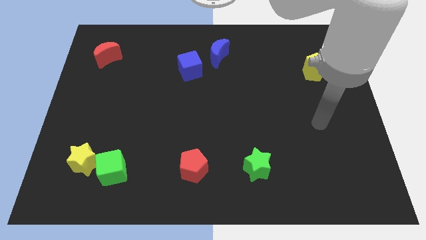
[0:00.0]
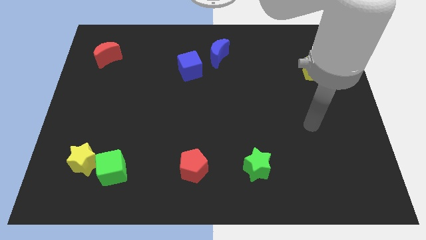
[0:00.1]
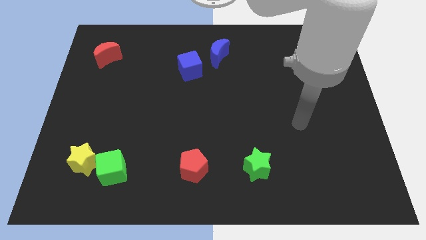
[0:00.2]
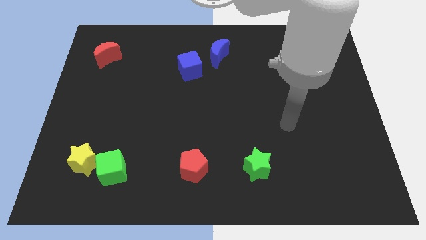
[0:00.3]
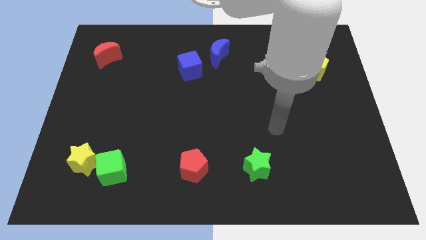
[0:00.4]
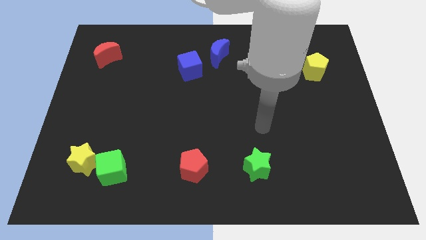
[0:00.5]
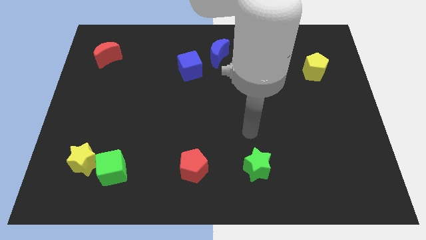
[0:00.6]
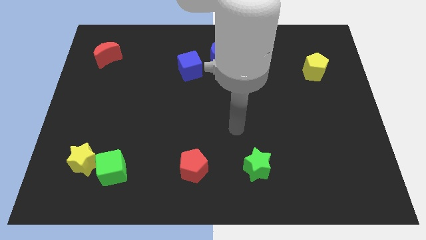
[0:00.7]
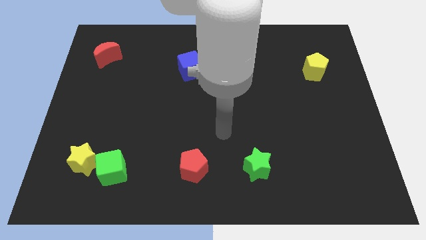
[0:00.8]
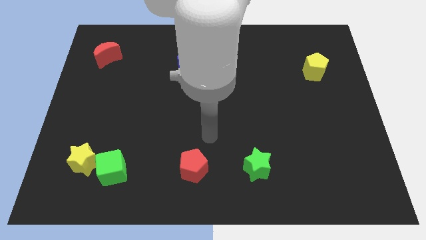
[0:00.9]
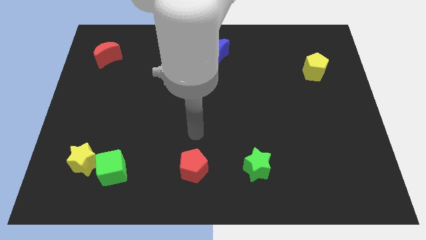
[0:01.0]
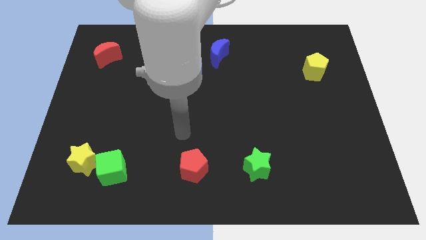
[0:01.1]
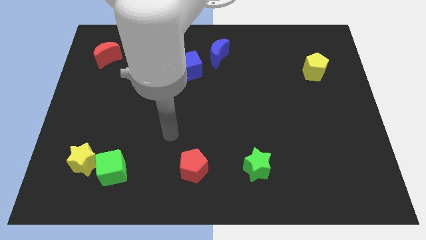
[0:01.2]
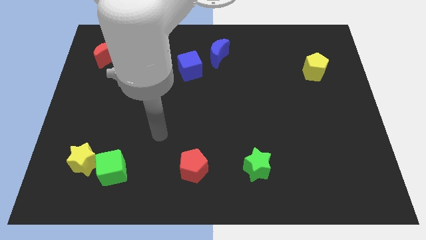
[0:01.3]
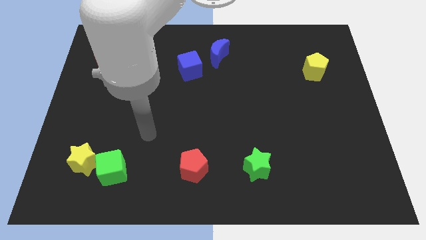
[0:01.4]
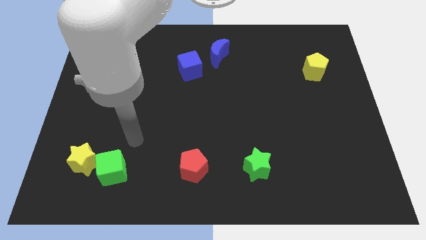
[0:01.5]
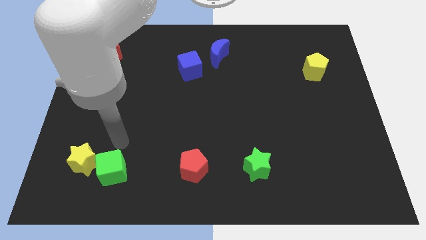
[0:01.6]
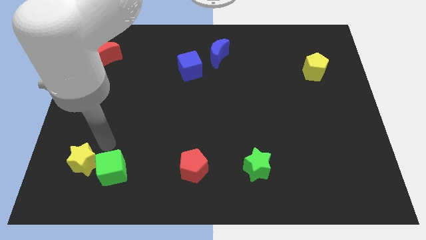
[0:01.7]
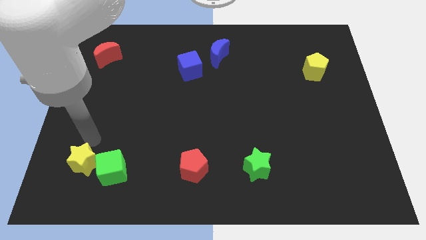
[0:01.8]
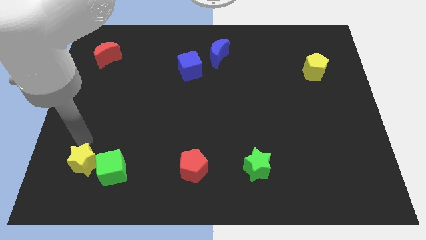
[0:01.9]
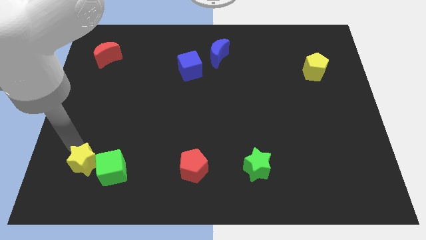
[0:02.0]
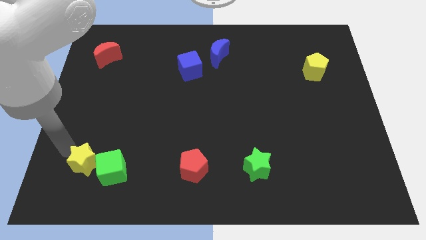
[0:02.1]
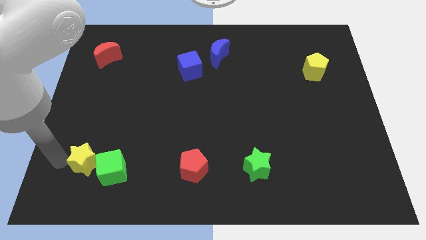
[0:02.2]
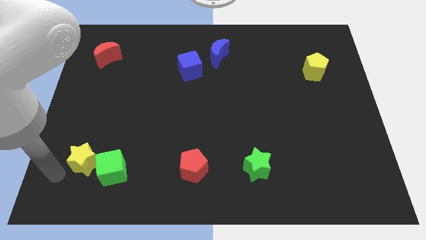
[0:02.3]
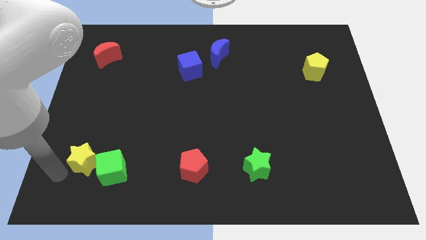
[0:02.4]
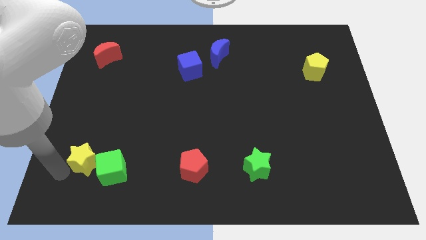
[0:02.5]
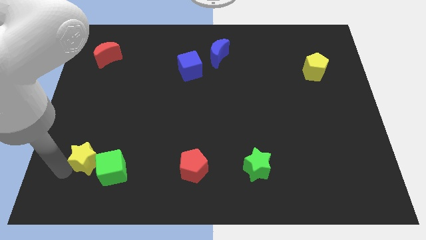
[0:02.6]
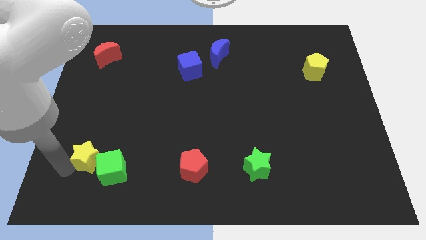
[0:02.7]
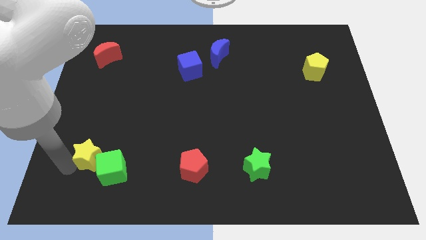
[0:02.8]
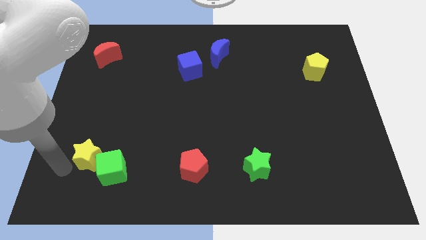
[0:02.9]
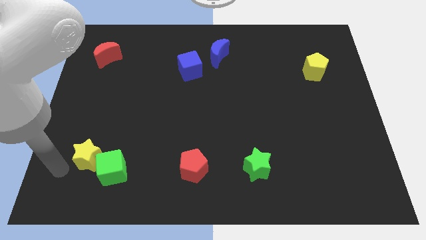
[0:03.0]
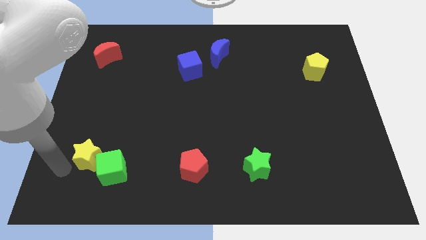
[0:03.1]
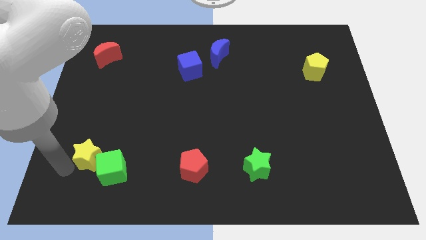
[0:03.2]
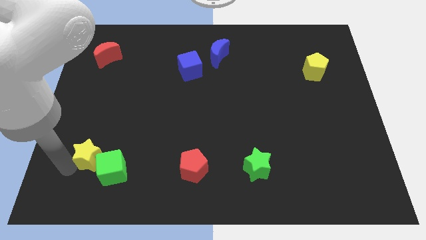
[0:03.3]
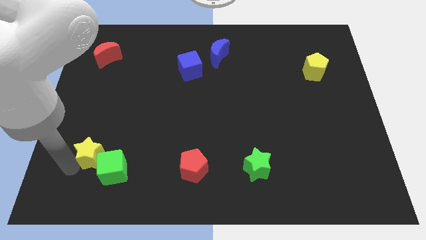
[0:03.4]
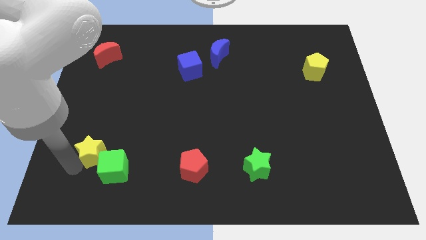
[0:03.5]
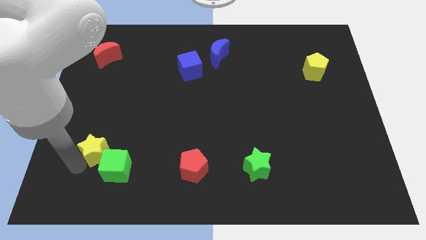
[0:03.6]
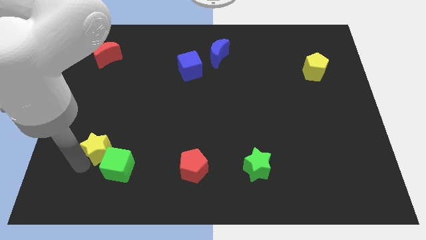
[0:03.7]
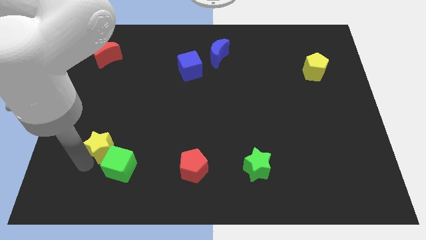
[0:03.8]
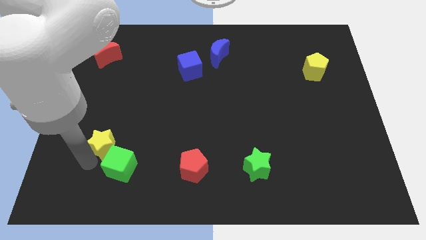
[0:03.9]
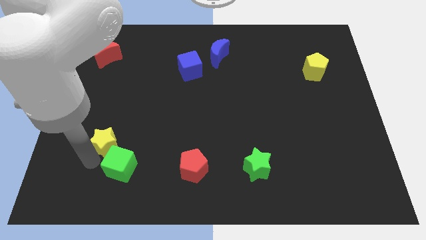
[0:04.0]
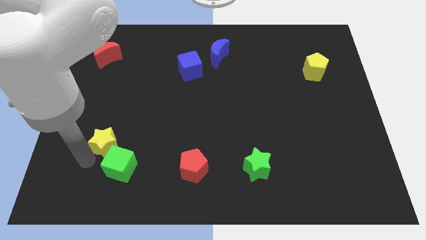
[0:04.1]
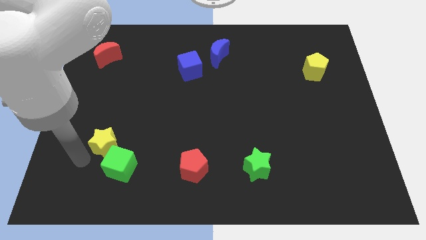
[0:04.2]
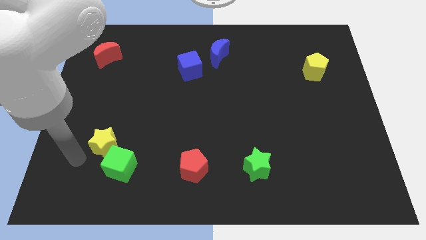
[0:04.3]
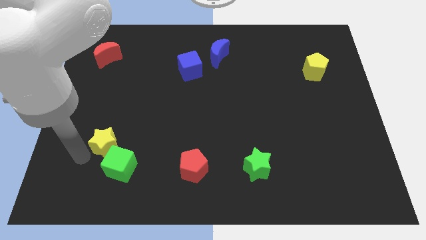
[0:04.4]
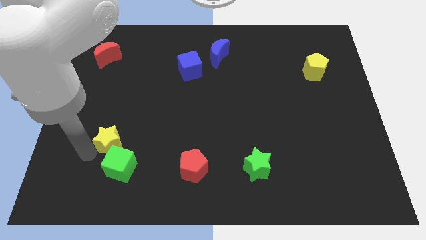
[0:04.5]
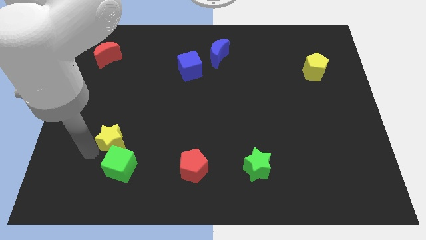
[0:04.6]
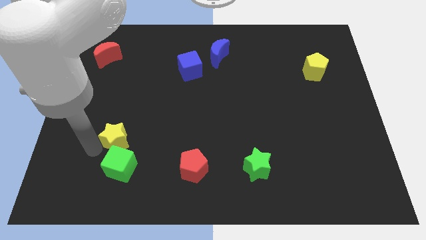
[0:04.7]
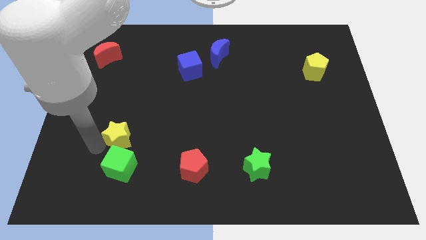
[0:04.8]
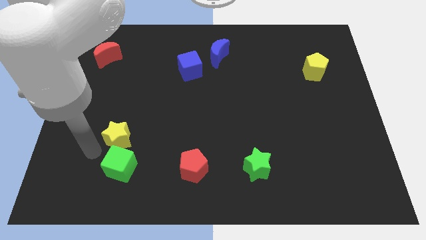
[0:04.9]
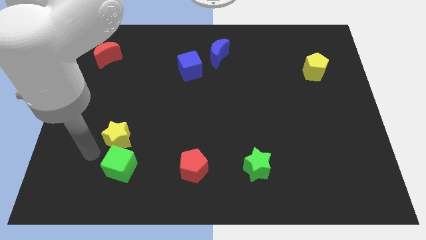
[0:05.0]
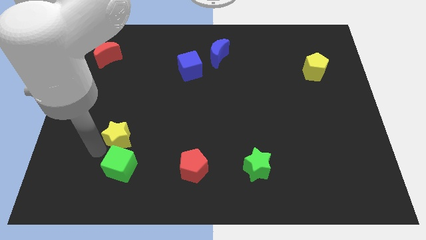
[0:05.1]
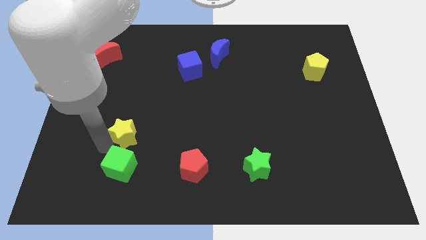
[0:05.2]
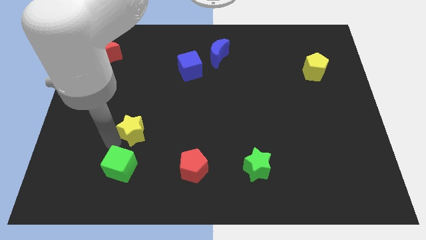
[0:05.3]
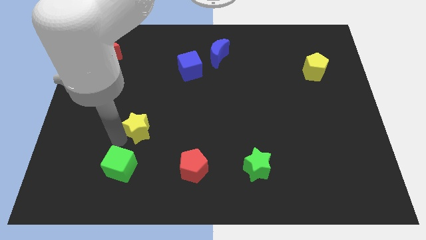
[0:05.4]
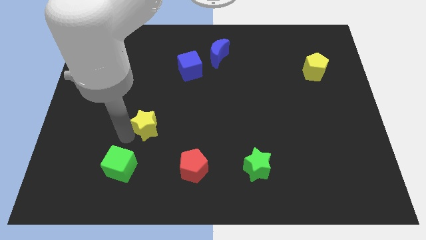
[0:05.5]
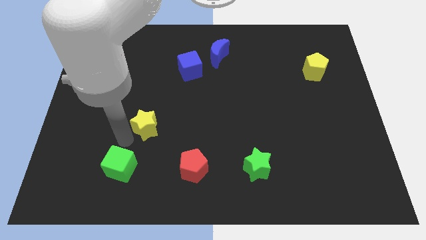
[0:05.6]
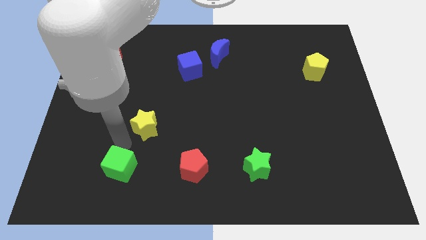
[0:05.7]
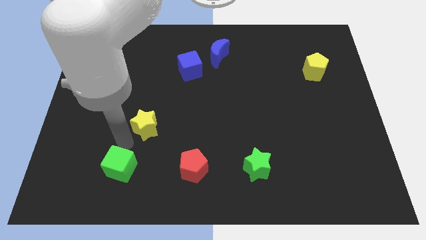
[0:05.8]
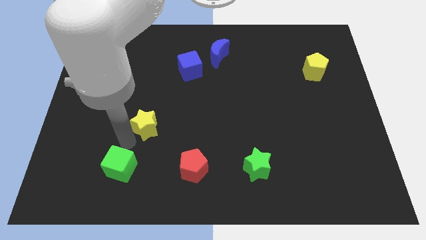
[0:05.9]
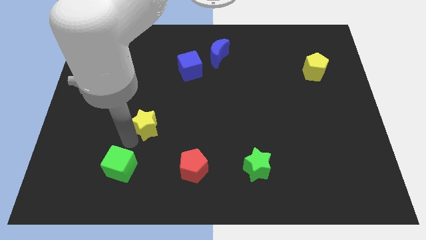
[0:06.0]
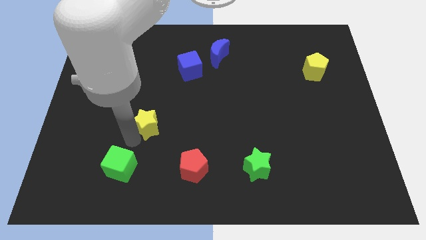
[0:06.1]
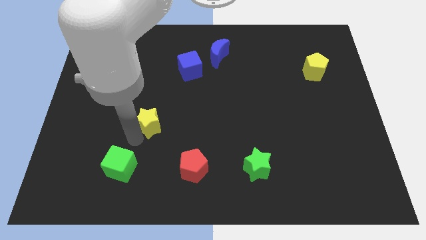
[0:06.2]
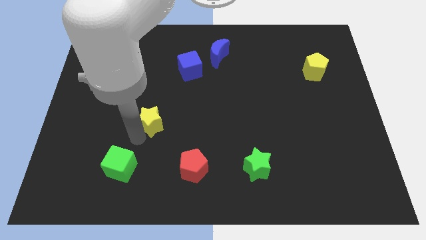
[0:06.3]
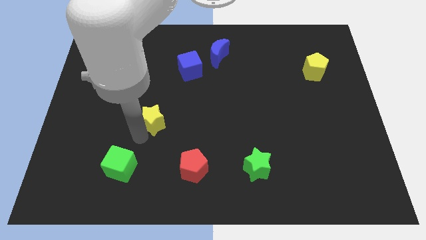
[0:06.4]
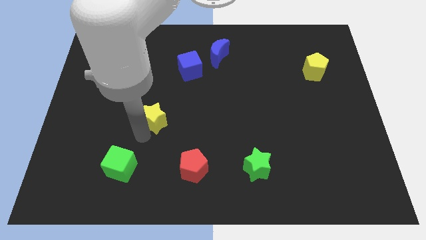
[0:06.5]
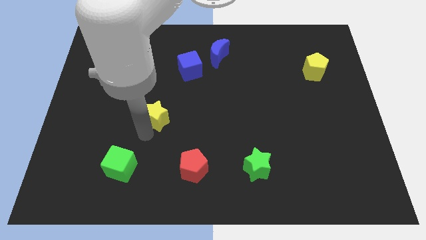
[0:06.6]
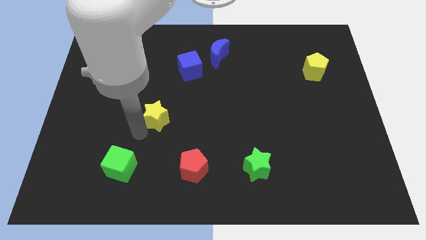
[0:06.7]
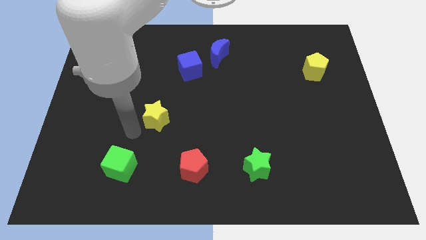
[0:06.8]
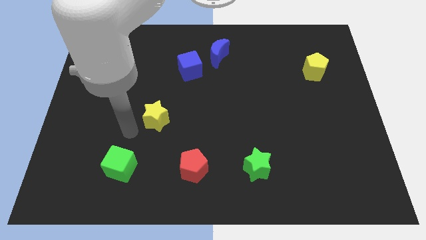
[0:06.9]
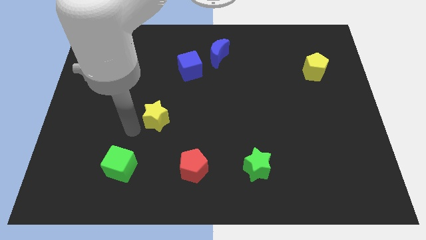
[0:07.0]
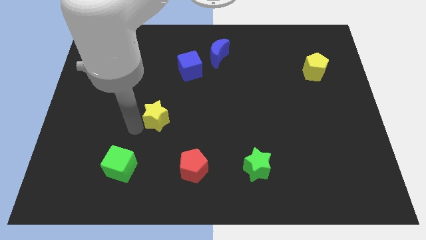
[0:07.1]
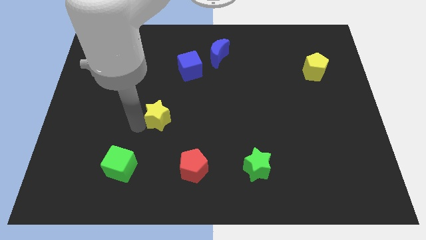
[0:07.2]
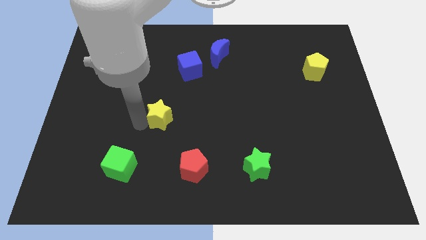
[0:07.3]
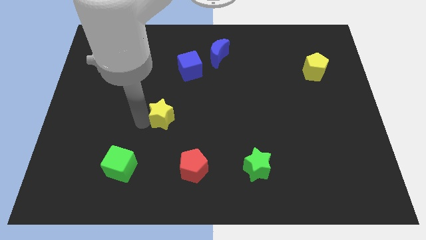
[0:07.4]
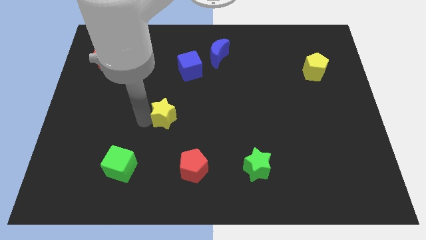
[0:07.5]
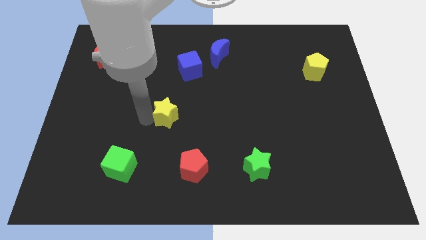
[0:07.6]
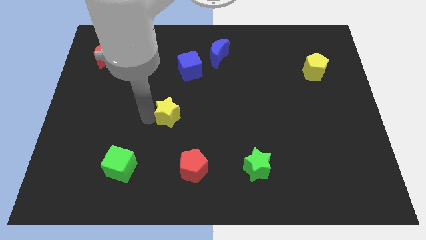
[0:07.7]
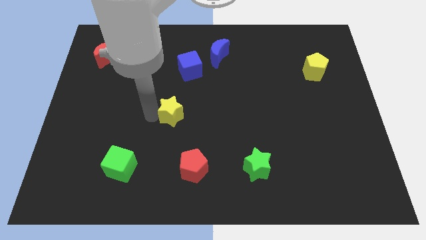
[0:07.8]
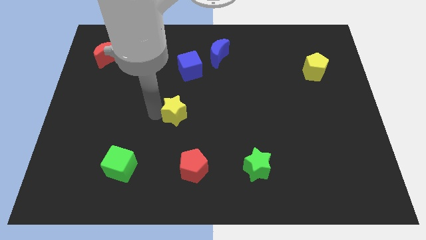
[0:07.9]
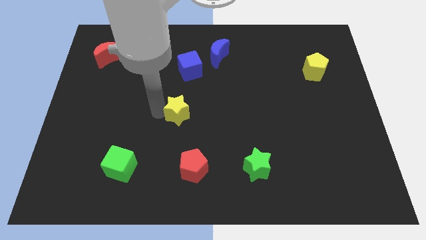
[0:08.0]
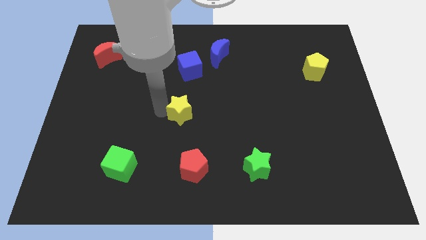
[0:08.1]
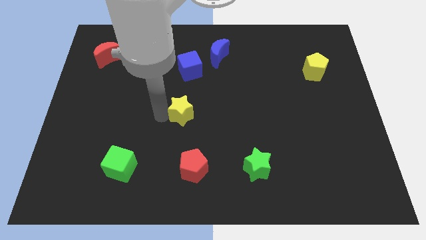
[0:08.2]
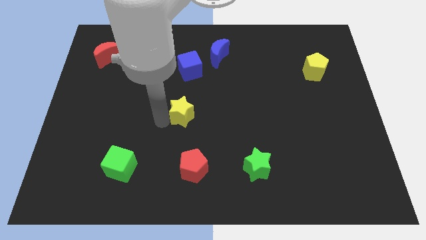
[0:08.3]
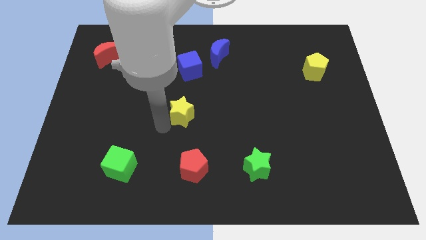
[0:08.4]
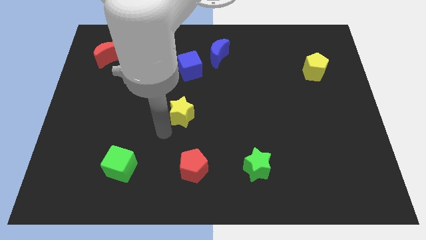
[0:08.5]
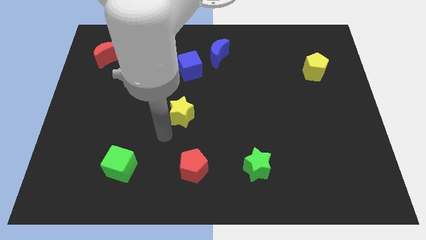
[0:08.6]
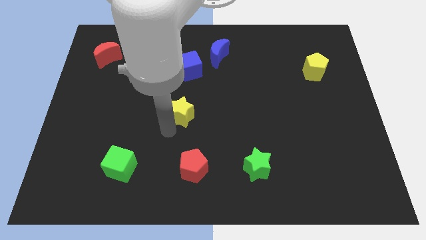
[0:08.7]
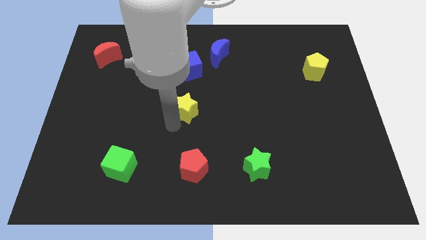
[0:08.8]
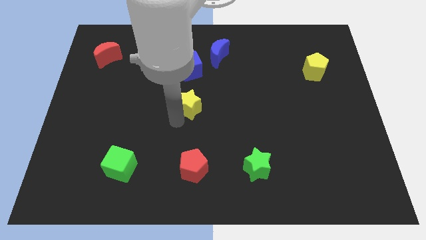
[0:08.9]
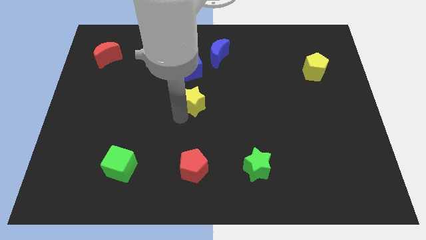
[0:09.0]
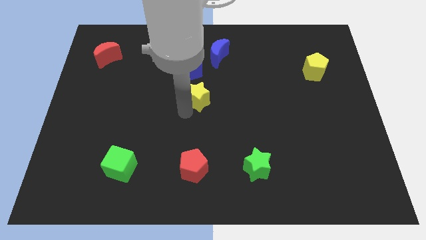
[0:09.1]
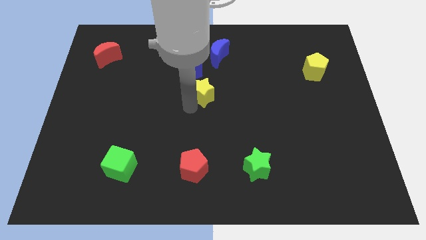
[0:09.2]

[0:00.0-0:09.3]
move the yellow star to the bottom right of the blue cube
